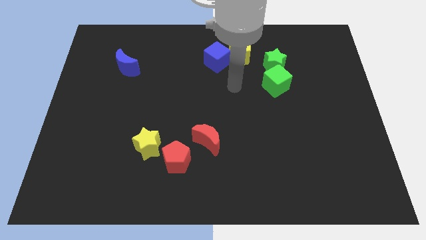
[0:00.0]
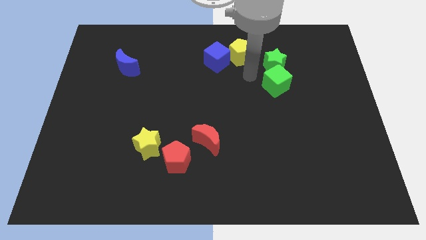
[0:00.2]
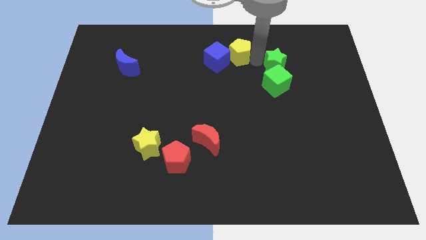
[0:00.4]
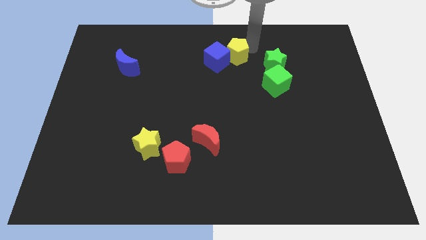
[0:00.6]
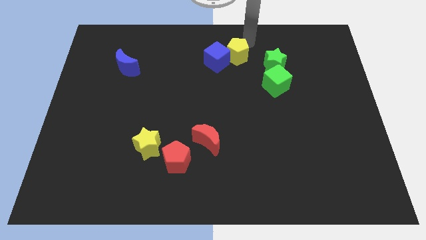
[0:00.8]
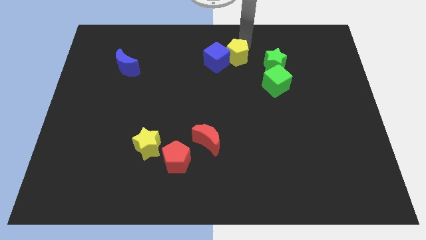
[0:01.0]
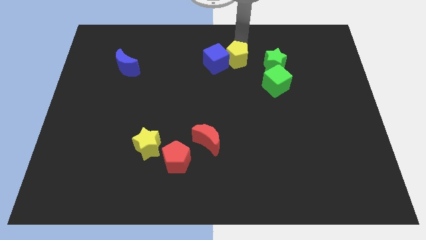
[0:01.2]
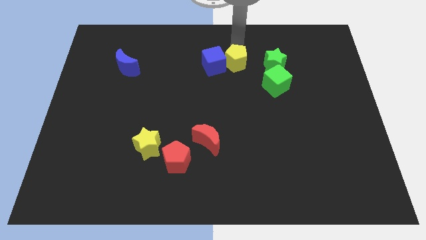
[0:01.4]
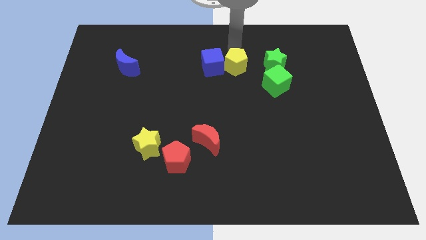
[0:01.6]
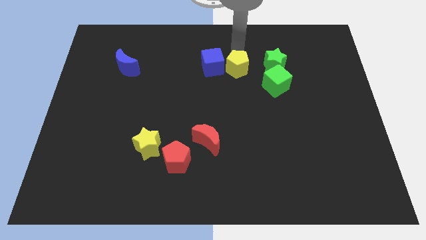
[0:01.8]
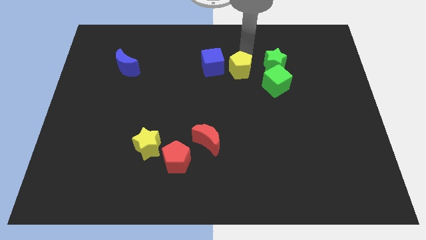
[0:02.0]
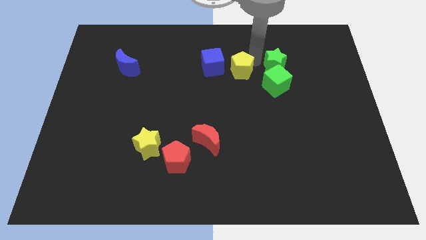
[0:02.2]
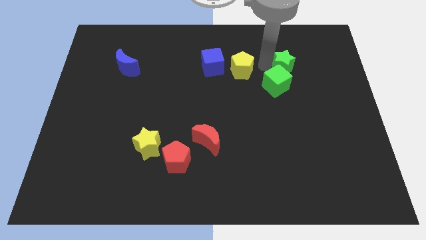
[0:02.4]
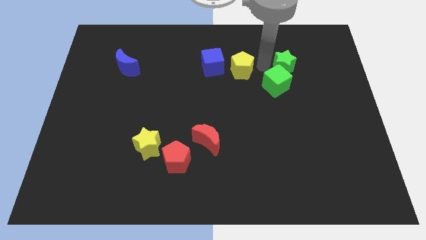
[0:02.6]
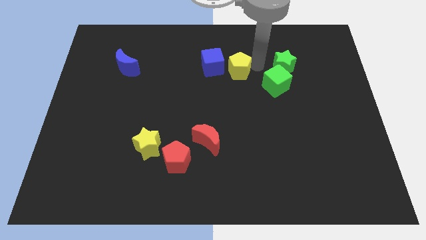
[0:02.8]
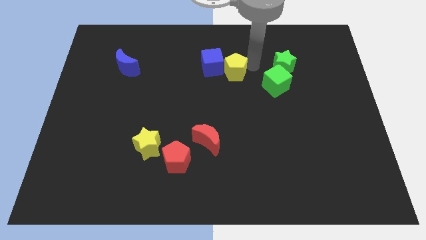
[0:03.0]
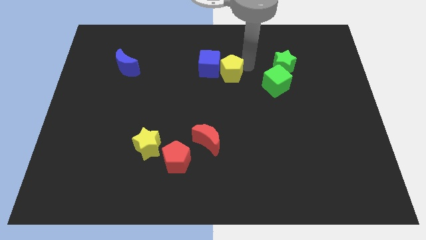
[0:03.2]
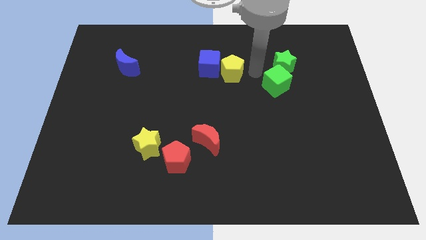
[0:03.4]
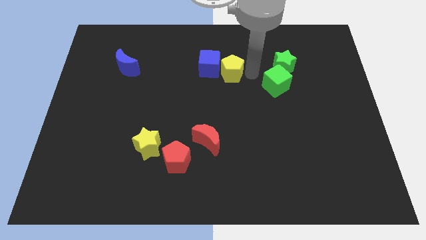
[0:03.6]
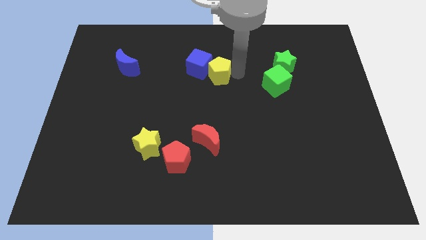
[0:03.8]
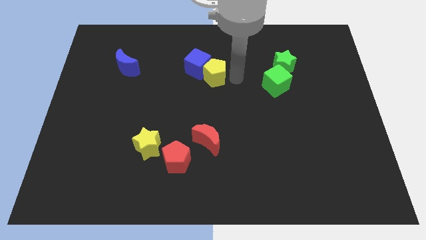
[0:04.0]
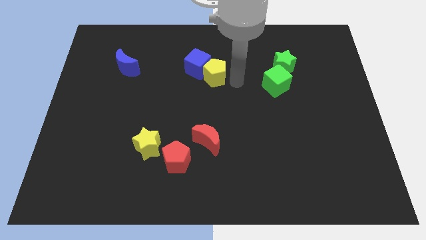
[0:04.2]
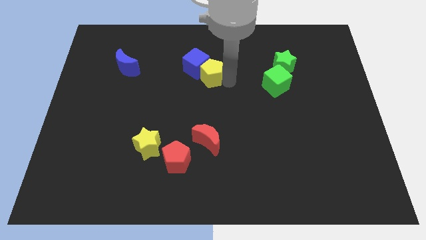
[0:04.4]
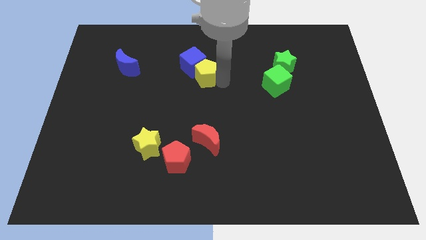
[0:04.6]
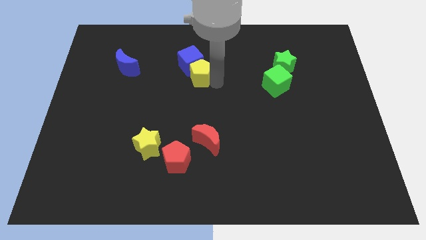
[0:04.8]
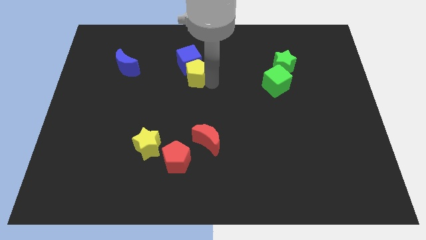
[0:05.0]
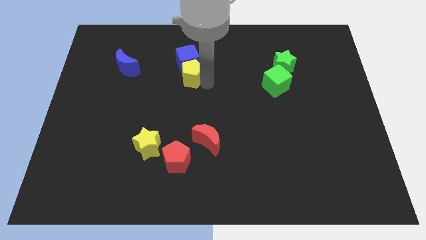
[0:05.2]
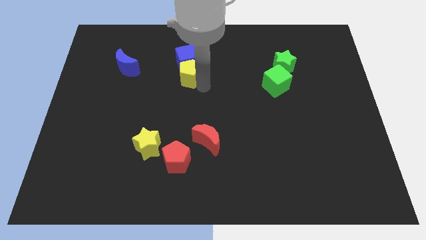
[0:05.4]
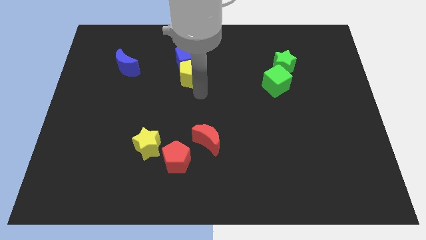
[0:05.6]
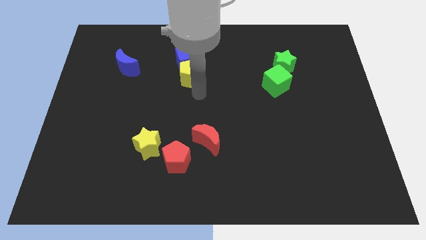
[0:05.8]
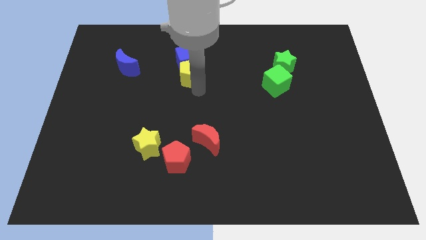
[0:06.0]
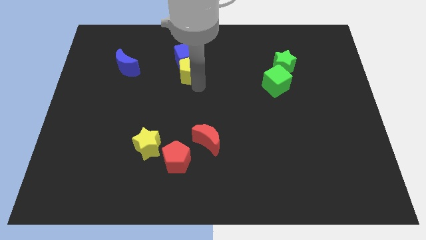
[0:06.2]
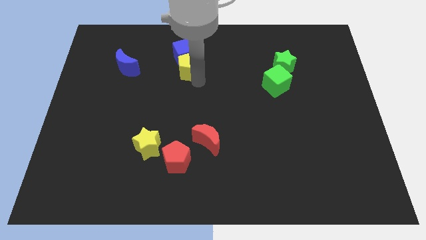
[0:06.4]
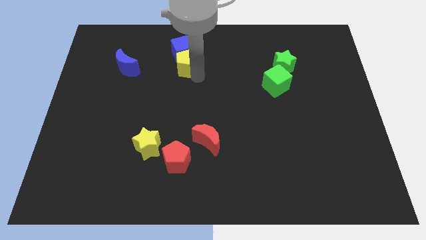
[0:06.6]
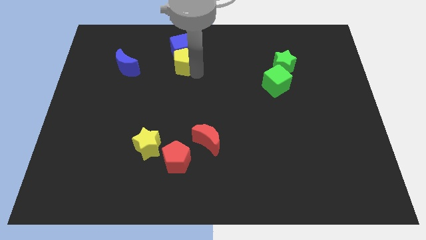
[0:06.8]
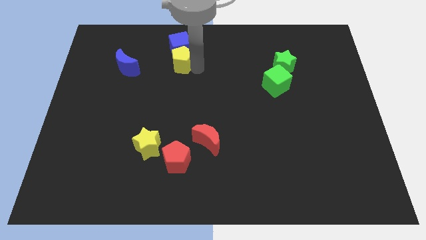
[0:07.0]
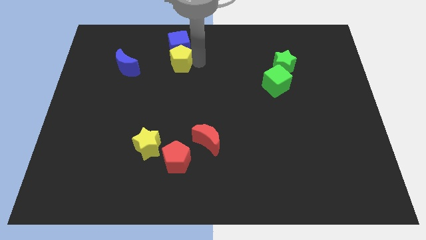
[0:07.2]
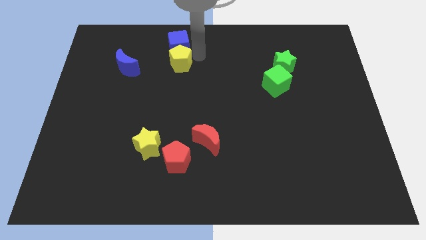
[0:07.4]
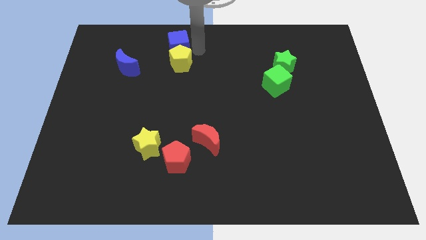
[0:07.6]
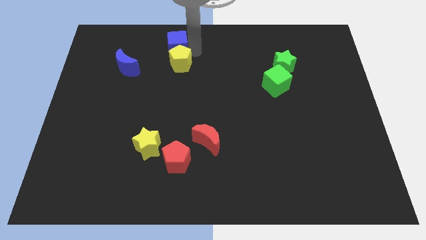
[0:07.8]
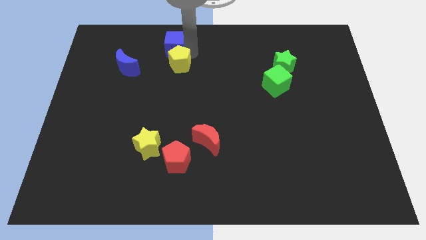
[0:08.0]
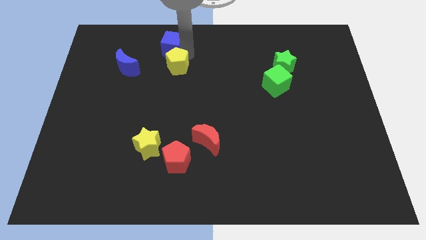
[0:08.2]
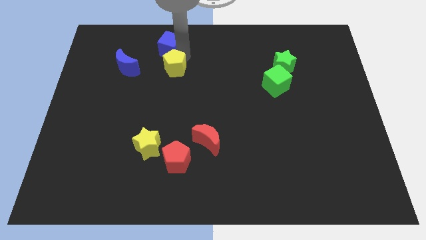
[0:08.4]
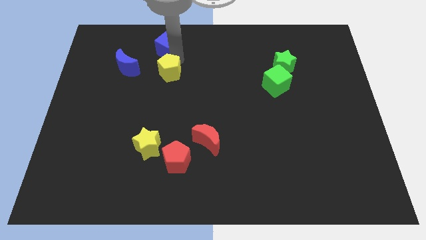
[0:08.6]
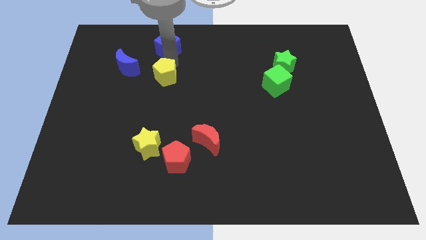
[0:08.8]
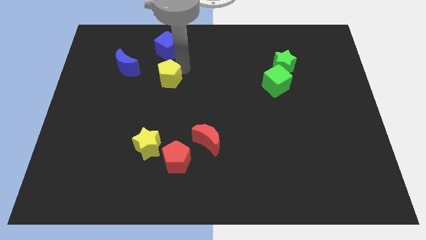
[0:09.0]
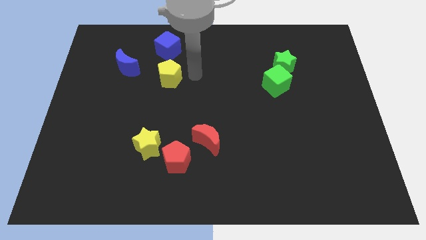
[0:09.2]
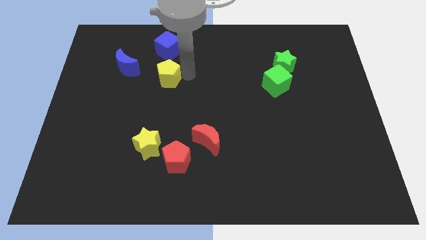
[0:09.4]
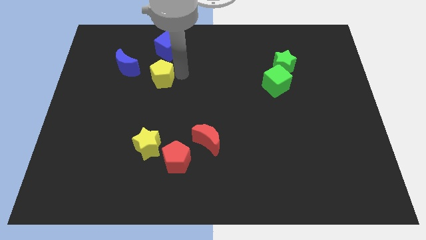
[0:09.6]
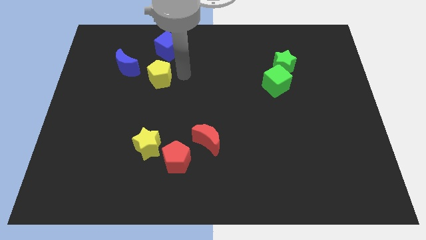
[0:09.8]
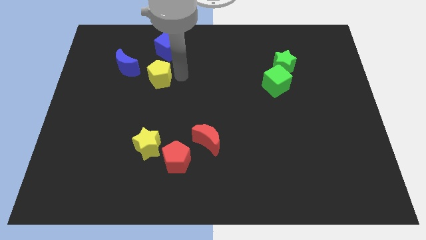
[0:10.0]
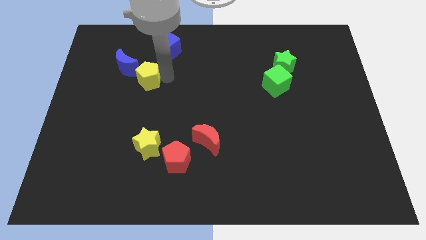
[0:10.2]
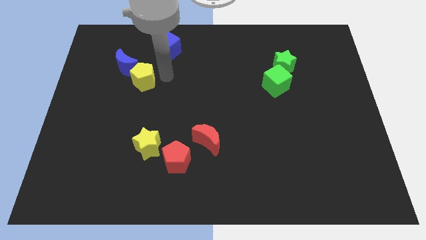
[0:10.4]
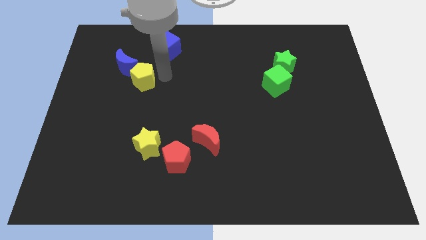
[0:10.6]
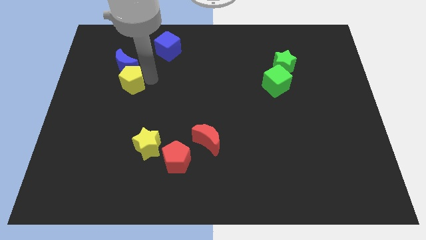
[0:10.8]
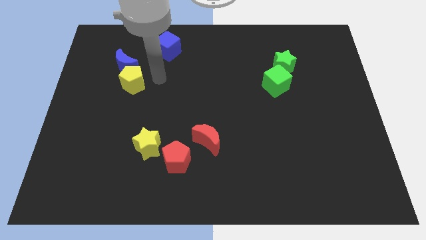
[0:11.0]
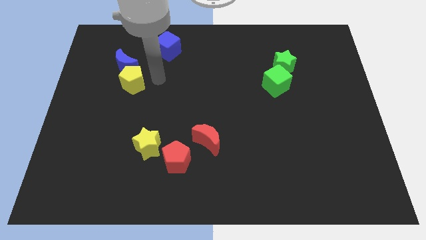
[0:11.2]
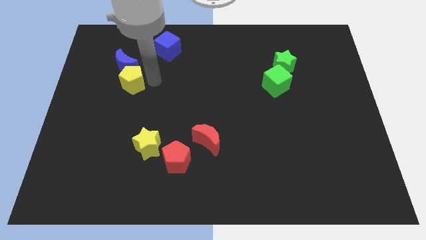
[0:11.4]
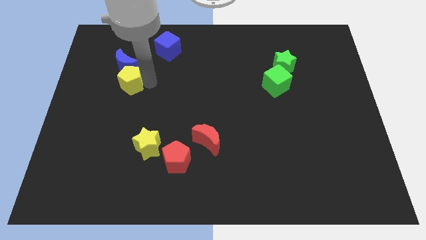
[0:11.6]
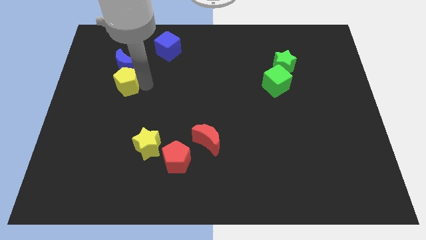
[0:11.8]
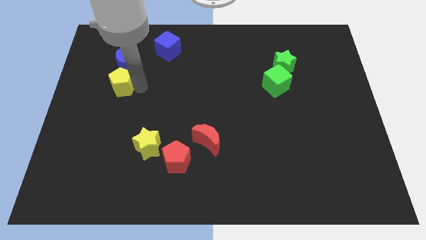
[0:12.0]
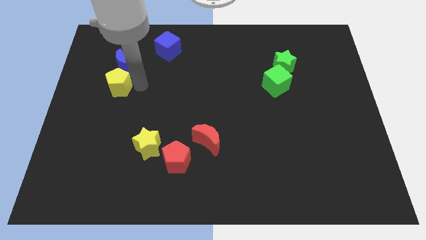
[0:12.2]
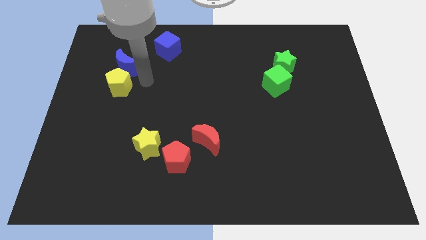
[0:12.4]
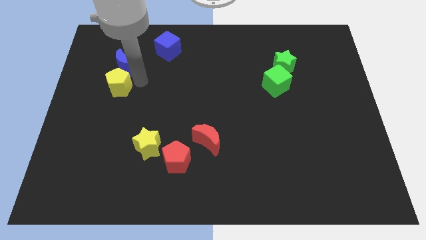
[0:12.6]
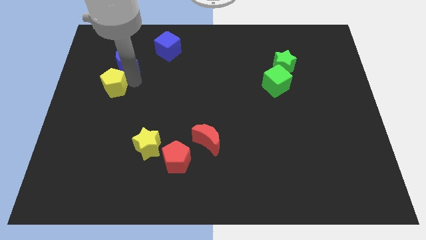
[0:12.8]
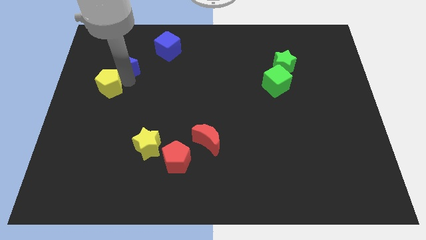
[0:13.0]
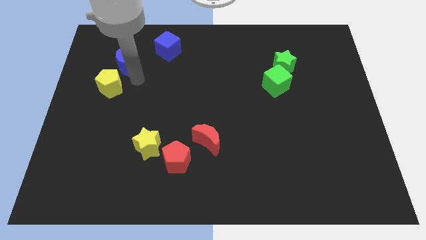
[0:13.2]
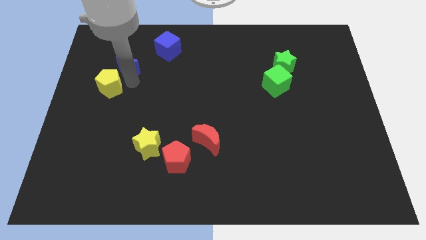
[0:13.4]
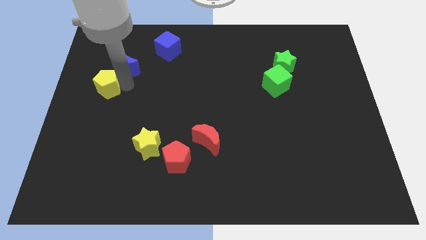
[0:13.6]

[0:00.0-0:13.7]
move the yellow pentagon to the left side
